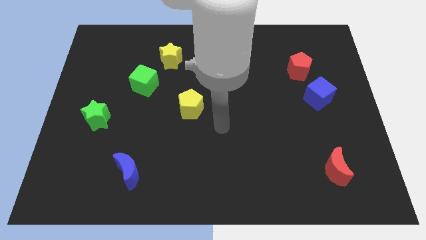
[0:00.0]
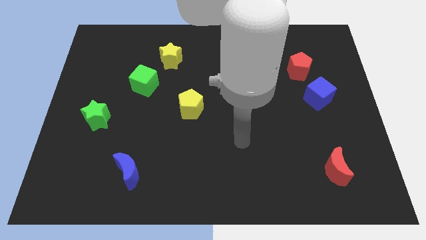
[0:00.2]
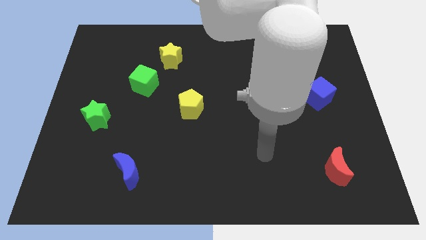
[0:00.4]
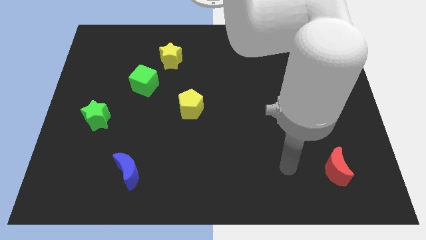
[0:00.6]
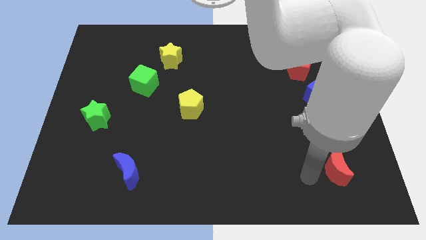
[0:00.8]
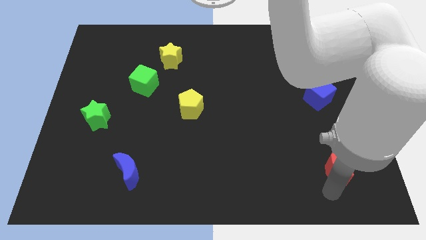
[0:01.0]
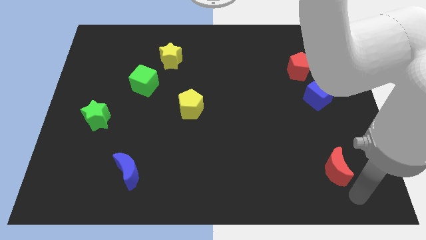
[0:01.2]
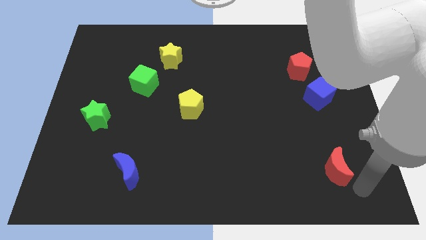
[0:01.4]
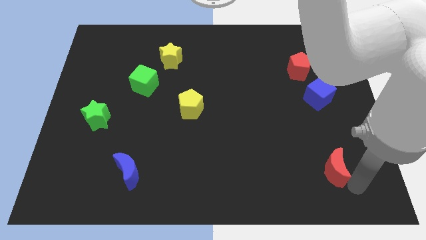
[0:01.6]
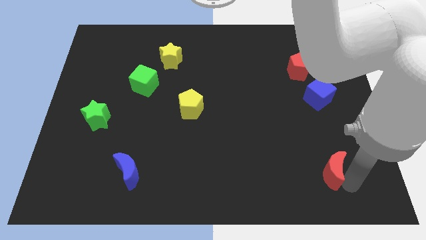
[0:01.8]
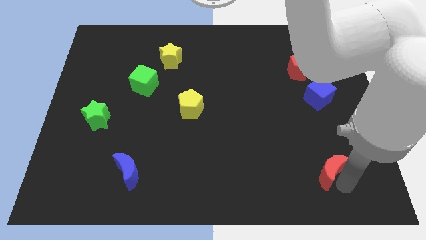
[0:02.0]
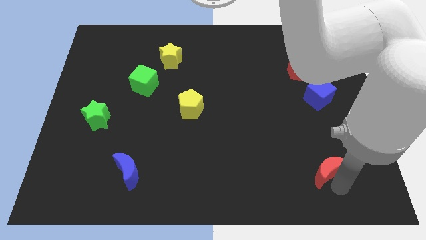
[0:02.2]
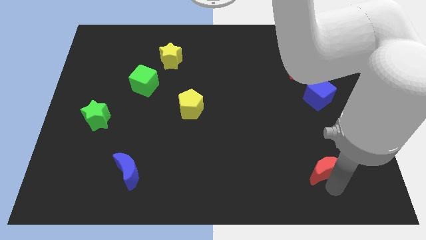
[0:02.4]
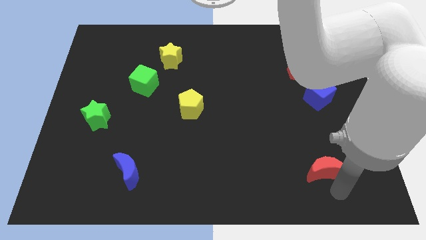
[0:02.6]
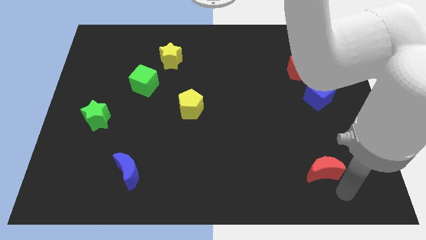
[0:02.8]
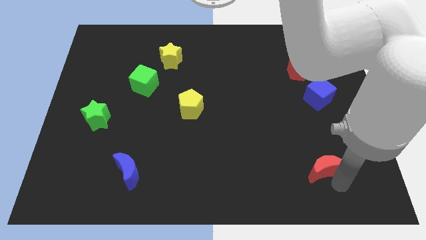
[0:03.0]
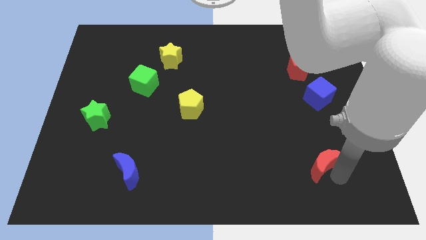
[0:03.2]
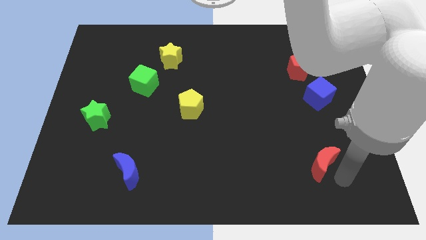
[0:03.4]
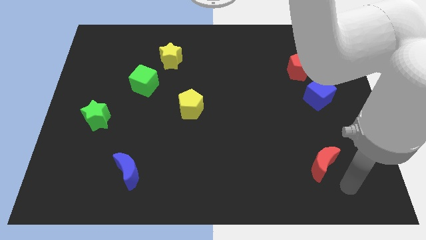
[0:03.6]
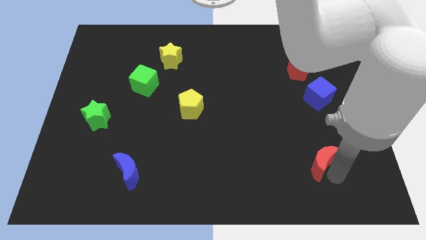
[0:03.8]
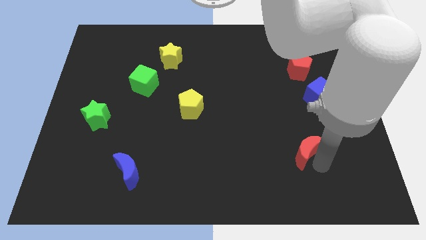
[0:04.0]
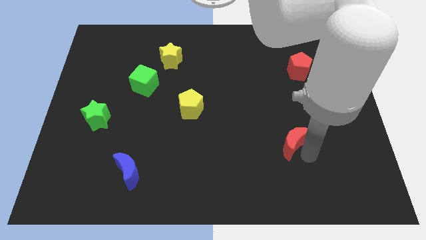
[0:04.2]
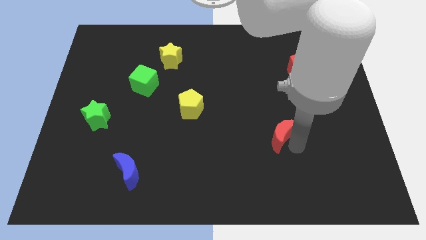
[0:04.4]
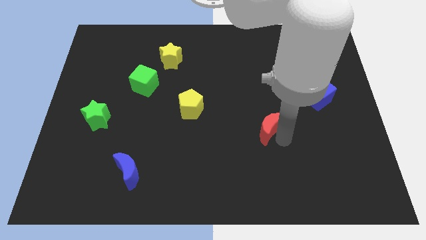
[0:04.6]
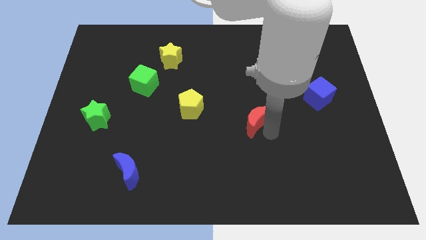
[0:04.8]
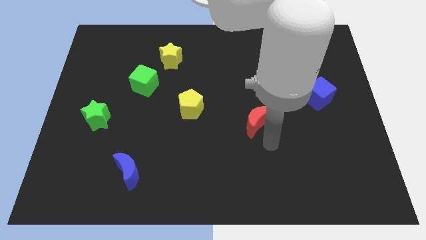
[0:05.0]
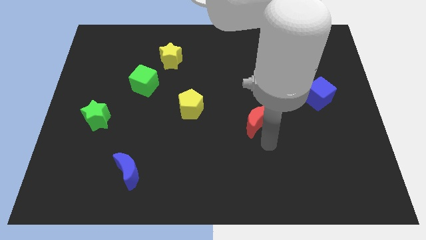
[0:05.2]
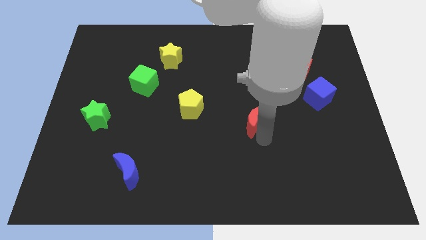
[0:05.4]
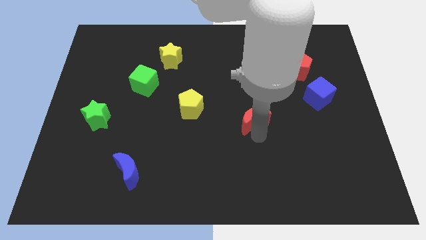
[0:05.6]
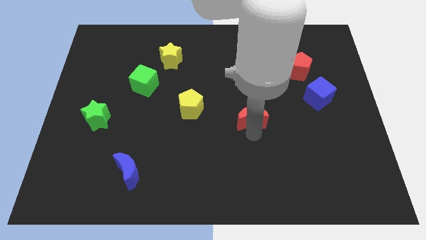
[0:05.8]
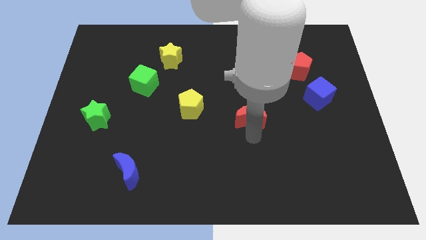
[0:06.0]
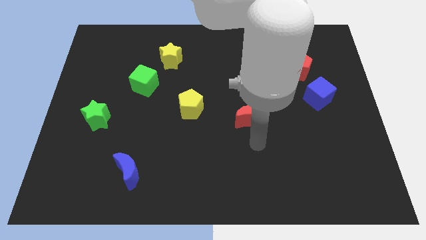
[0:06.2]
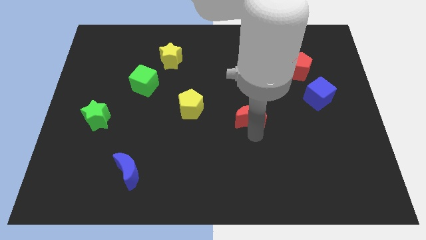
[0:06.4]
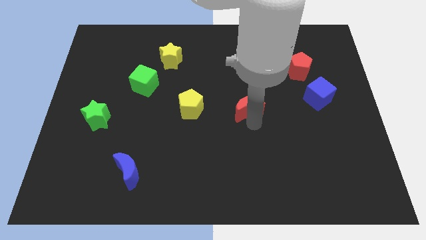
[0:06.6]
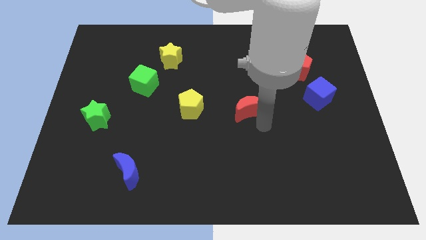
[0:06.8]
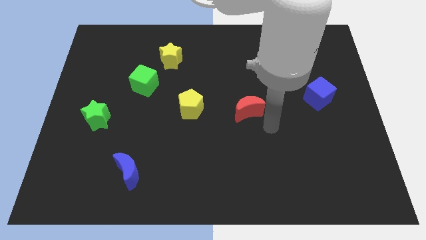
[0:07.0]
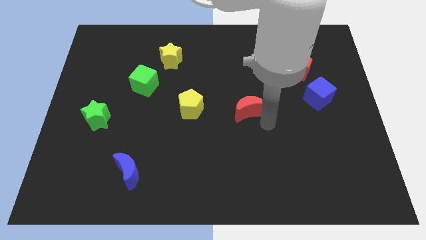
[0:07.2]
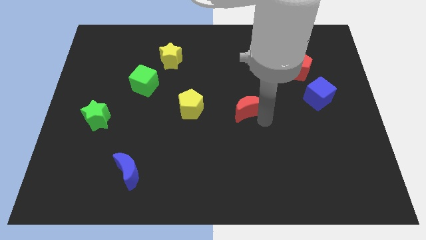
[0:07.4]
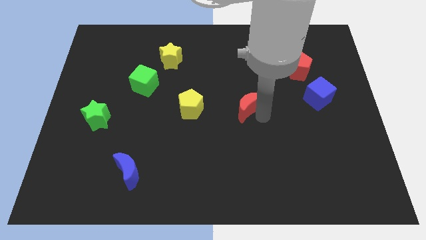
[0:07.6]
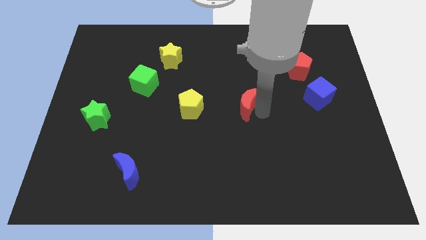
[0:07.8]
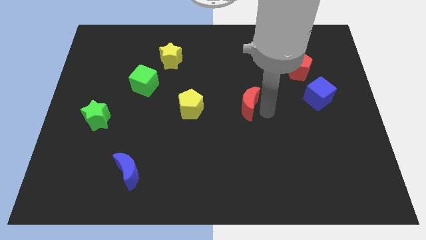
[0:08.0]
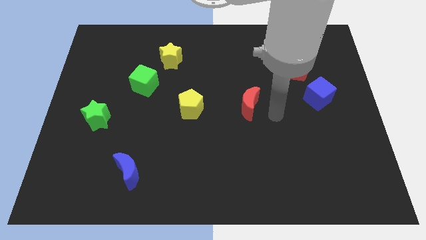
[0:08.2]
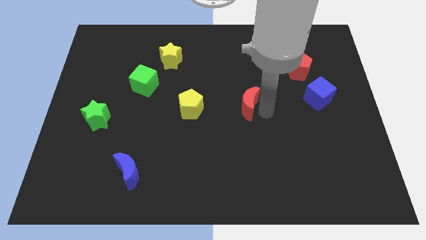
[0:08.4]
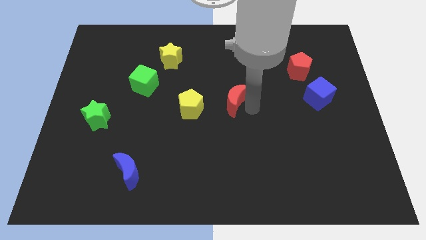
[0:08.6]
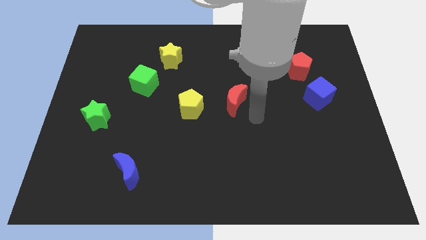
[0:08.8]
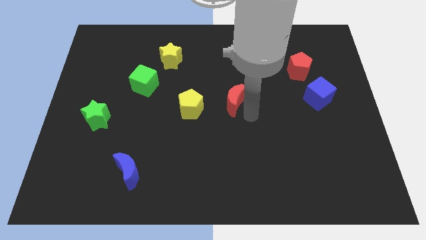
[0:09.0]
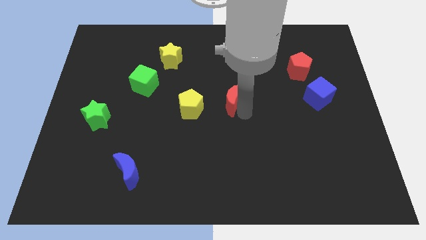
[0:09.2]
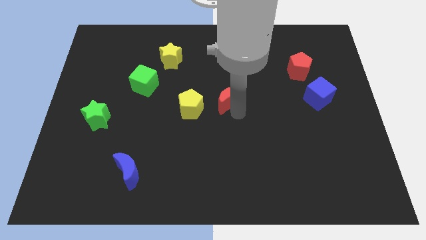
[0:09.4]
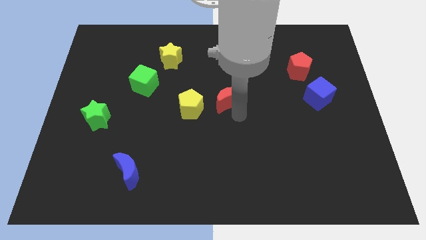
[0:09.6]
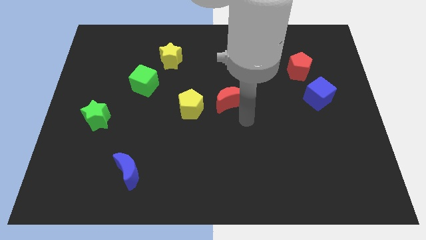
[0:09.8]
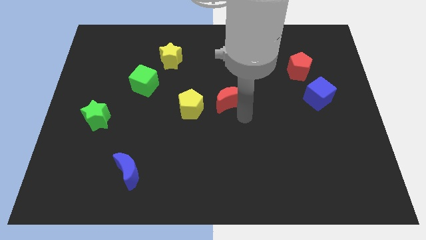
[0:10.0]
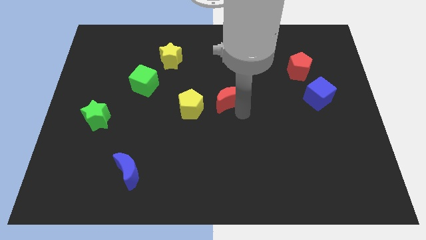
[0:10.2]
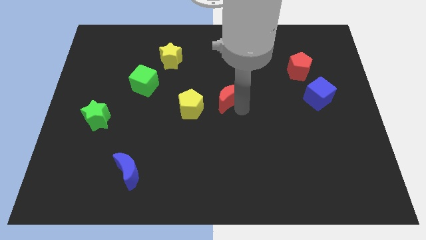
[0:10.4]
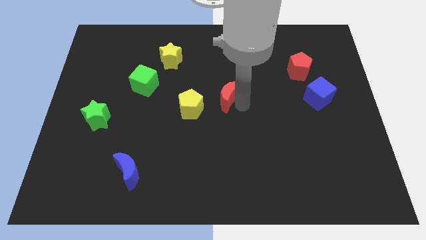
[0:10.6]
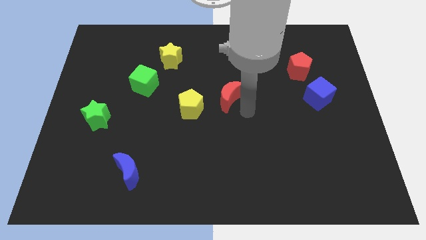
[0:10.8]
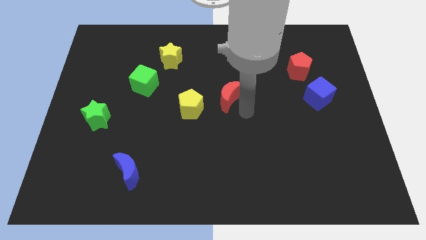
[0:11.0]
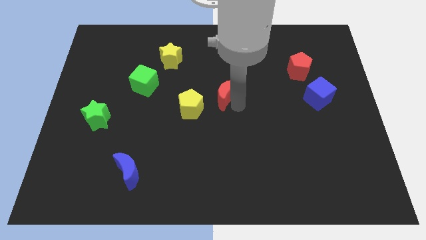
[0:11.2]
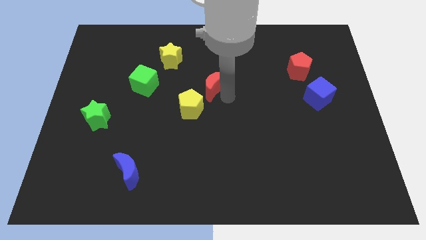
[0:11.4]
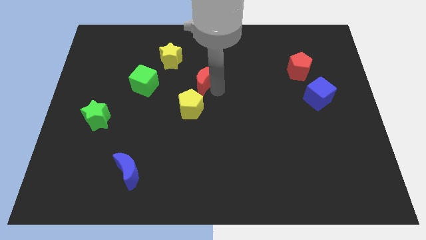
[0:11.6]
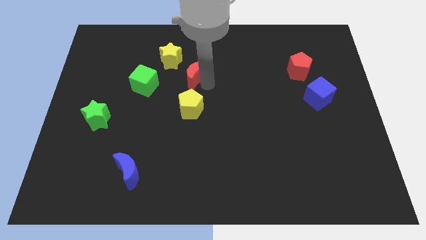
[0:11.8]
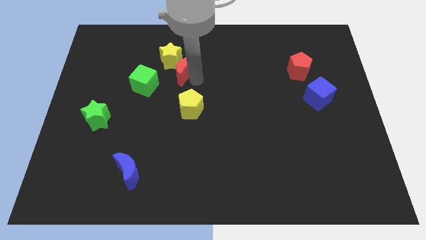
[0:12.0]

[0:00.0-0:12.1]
put the red moon towards the yellow star

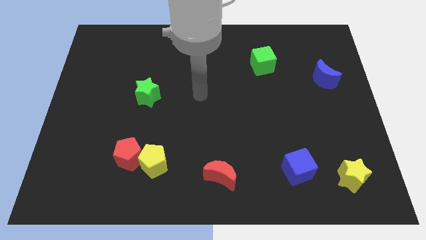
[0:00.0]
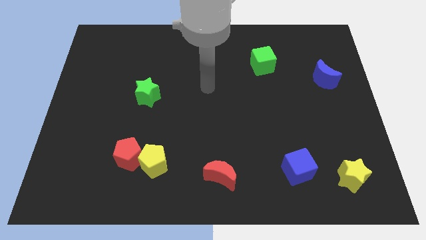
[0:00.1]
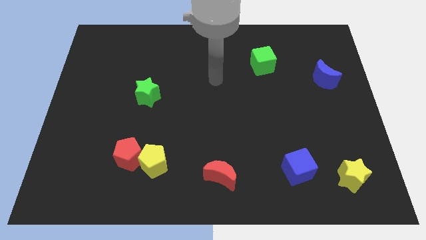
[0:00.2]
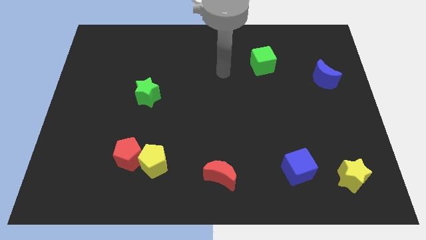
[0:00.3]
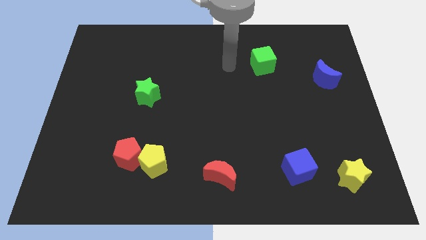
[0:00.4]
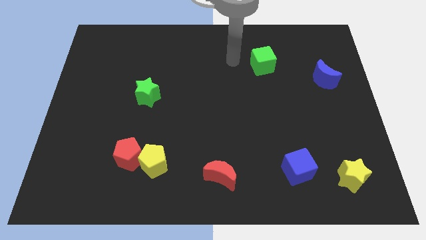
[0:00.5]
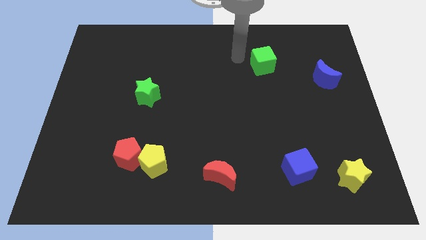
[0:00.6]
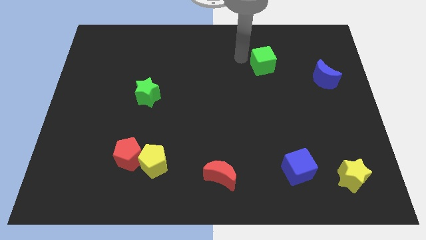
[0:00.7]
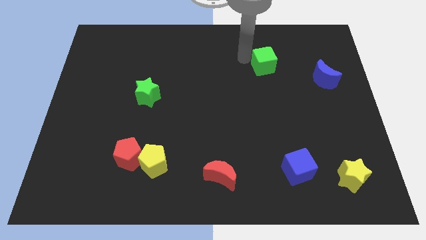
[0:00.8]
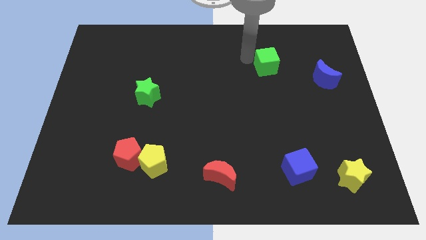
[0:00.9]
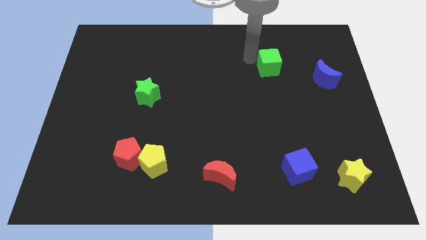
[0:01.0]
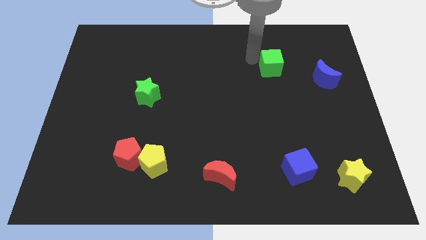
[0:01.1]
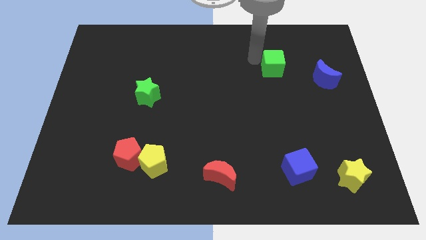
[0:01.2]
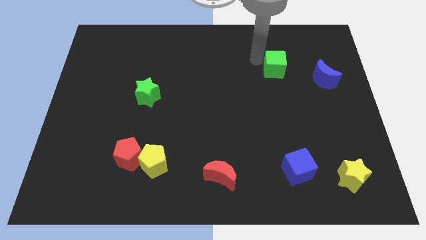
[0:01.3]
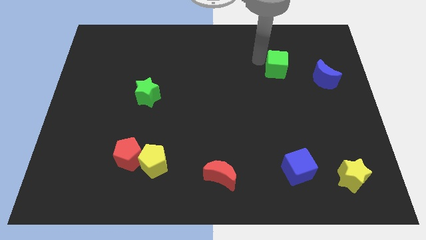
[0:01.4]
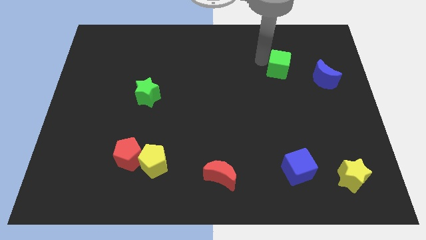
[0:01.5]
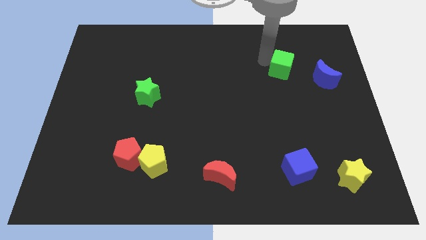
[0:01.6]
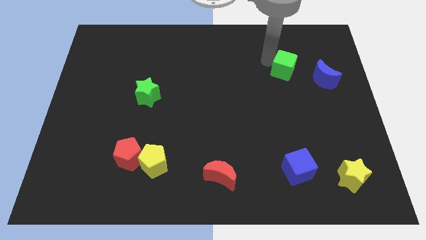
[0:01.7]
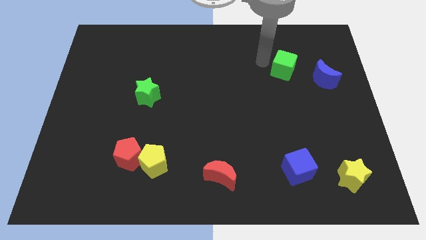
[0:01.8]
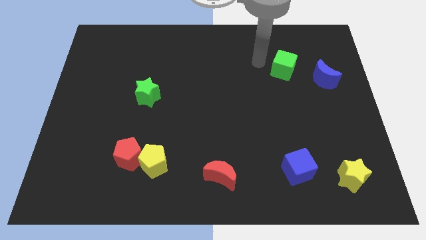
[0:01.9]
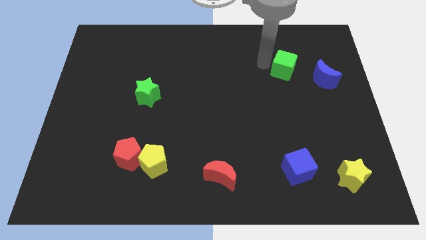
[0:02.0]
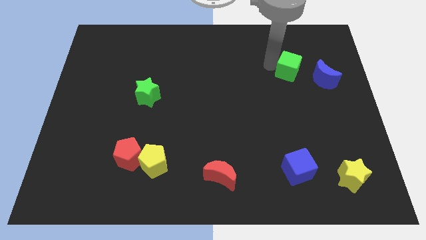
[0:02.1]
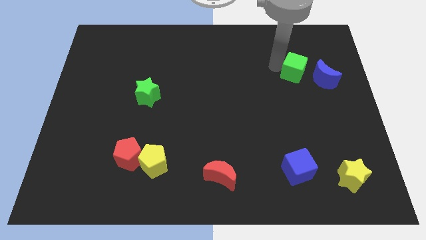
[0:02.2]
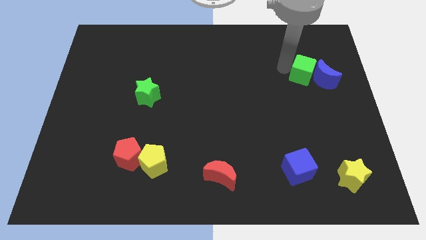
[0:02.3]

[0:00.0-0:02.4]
slide the green cube close to the blue moon
